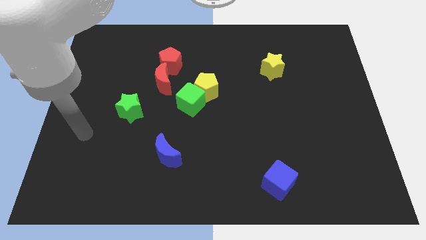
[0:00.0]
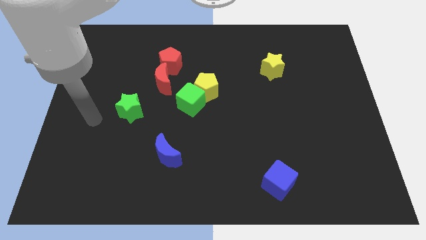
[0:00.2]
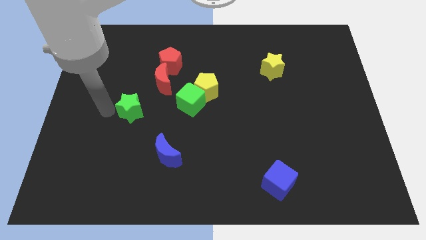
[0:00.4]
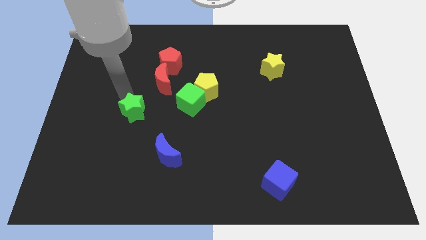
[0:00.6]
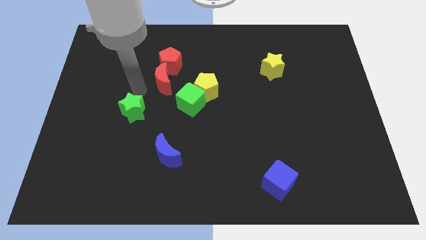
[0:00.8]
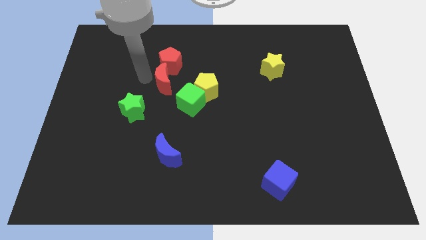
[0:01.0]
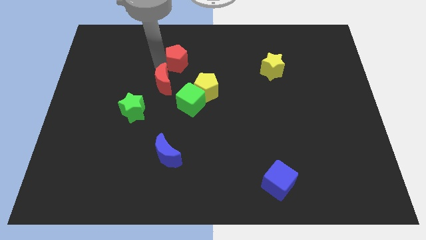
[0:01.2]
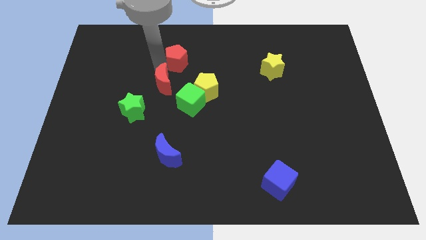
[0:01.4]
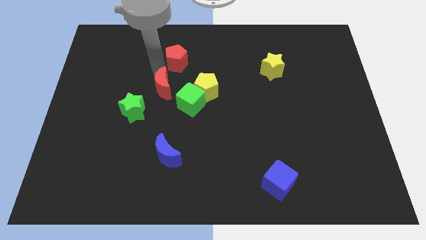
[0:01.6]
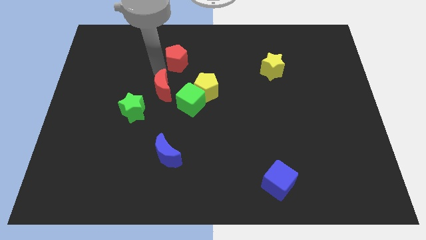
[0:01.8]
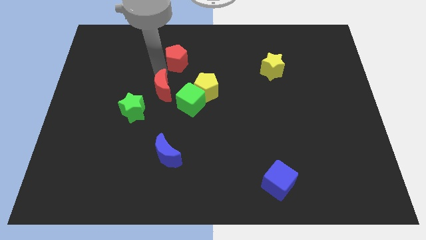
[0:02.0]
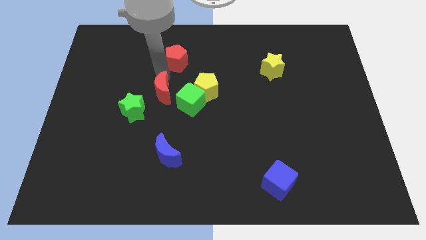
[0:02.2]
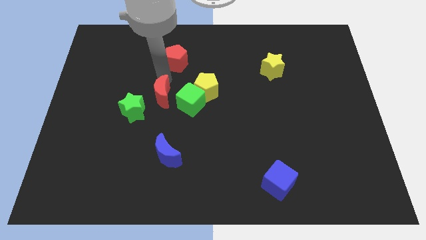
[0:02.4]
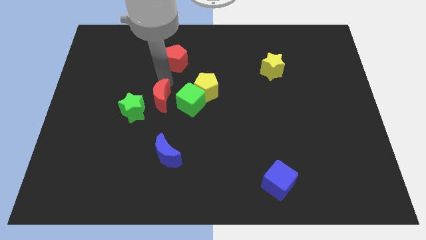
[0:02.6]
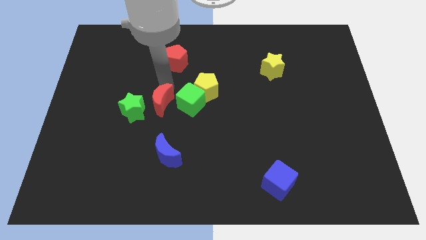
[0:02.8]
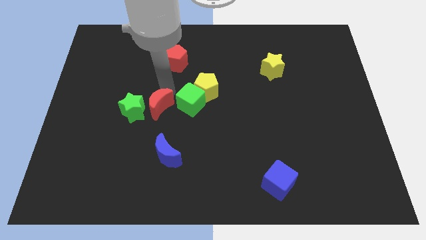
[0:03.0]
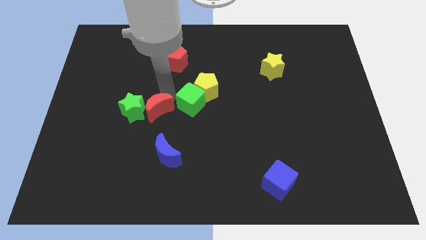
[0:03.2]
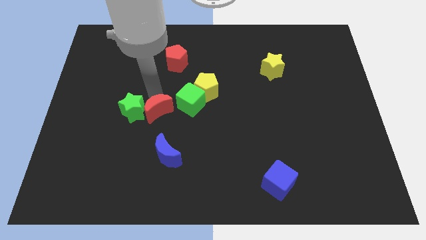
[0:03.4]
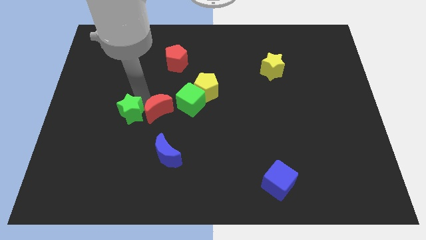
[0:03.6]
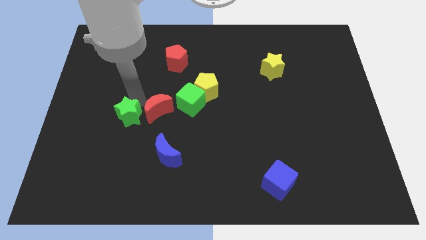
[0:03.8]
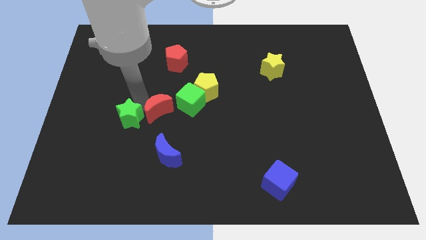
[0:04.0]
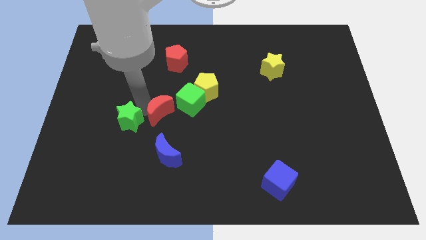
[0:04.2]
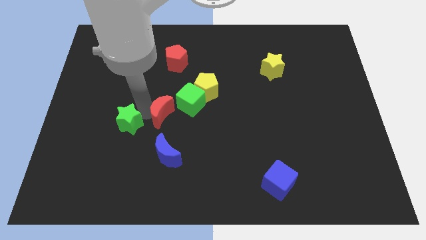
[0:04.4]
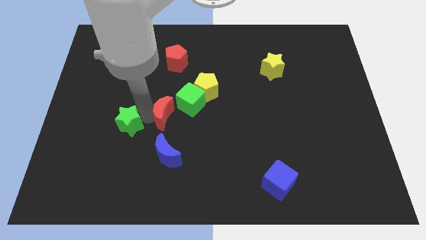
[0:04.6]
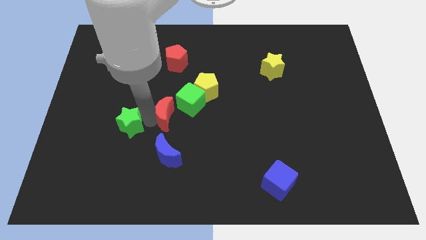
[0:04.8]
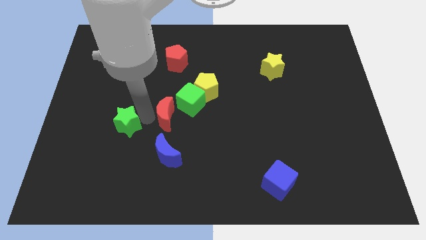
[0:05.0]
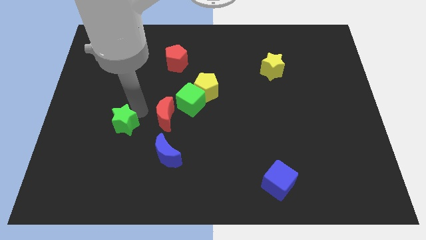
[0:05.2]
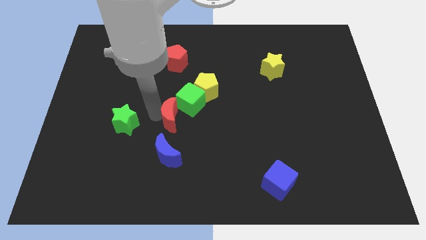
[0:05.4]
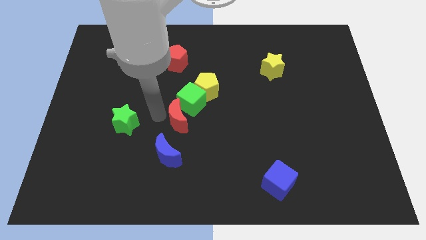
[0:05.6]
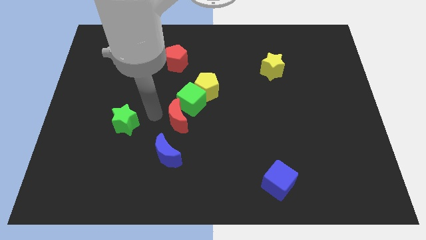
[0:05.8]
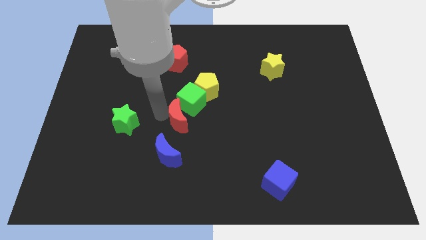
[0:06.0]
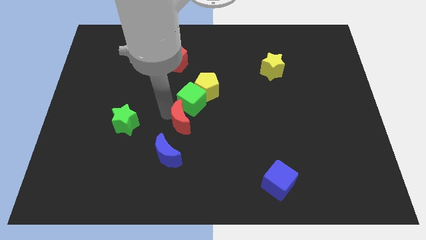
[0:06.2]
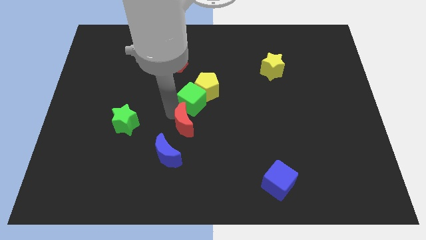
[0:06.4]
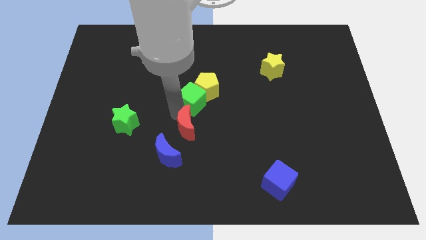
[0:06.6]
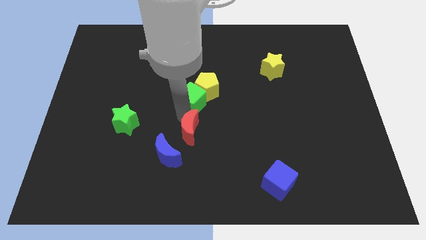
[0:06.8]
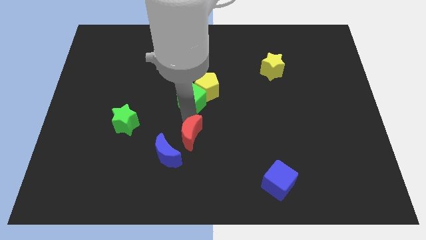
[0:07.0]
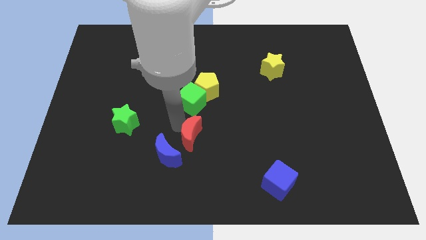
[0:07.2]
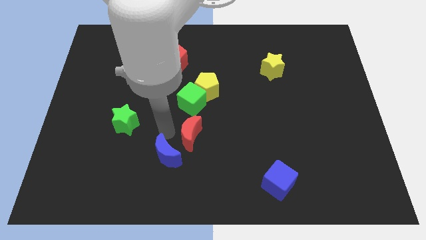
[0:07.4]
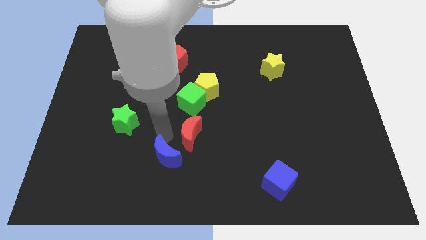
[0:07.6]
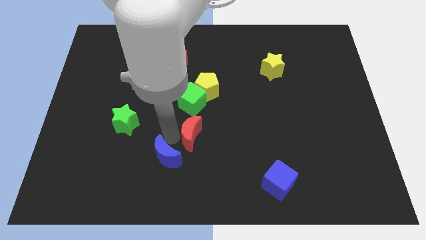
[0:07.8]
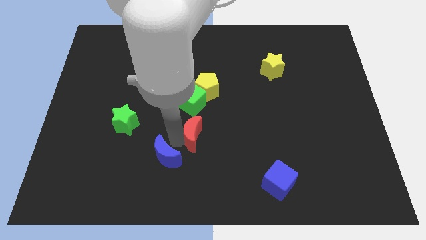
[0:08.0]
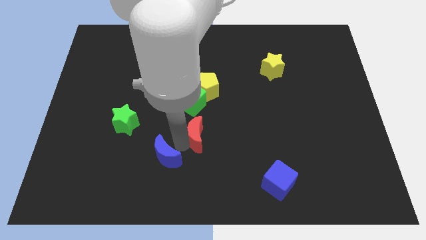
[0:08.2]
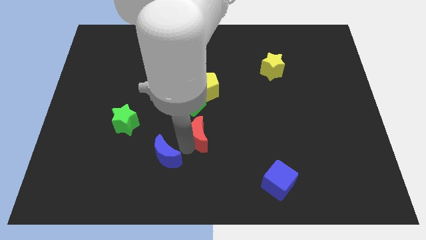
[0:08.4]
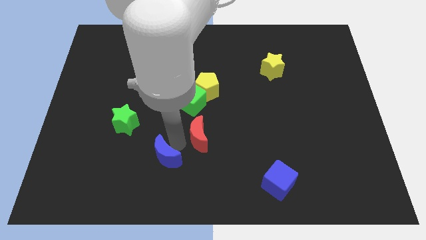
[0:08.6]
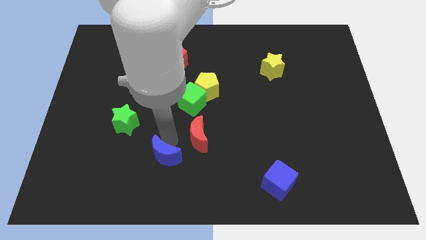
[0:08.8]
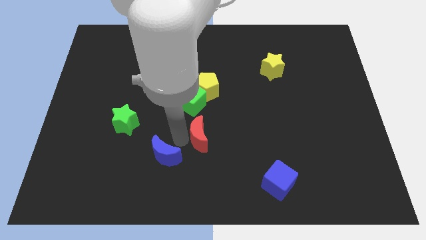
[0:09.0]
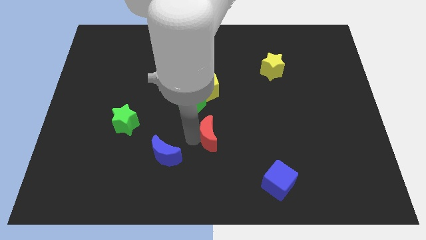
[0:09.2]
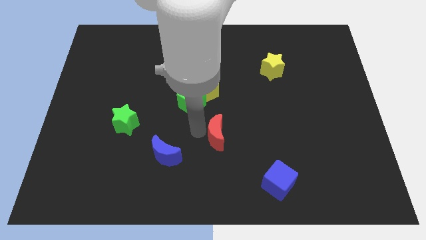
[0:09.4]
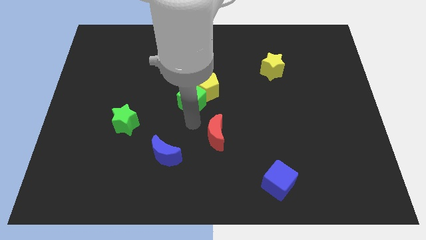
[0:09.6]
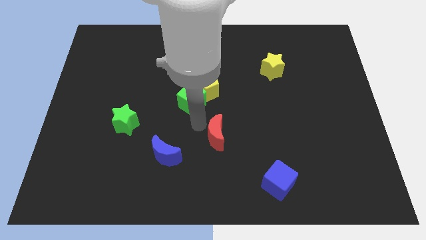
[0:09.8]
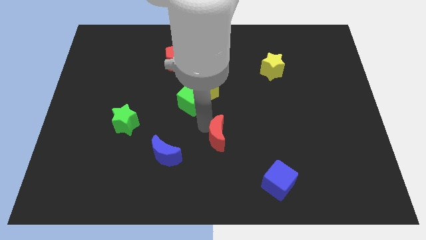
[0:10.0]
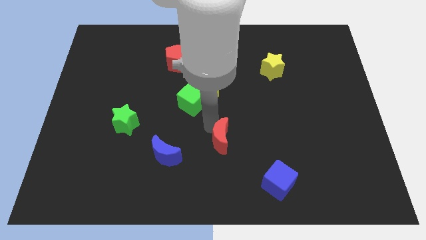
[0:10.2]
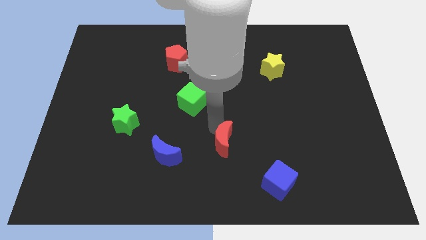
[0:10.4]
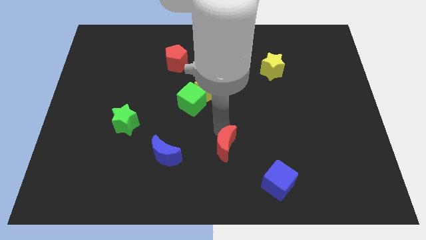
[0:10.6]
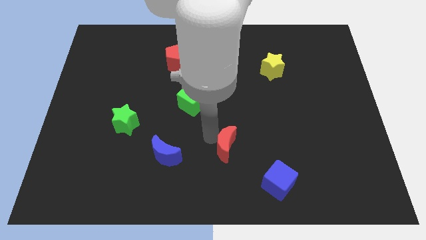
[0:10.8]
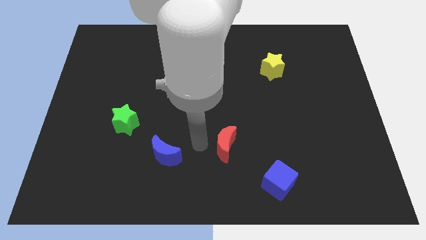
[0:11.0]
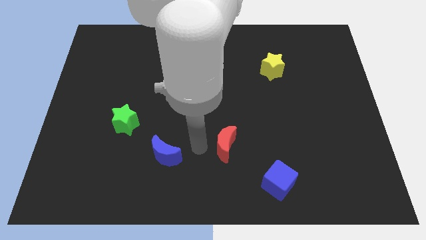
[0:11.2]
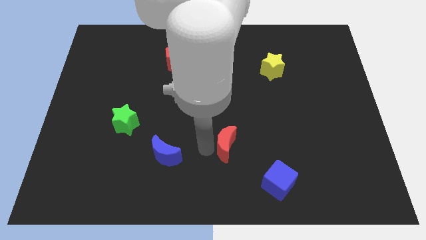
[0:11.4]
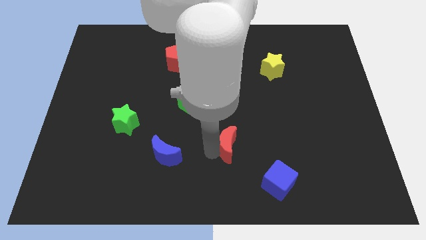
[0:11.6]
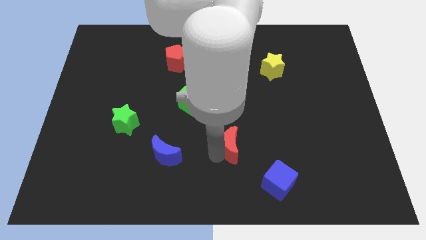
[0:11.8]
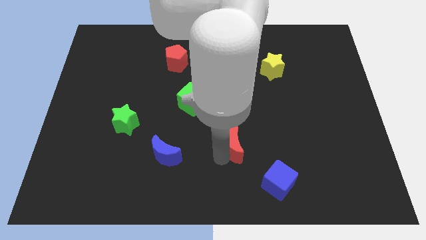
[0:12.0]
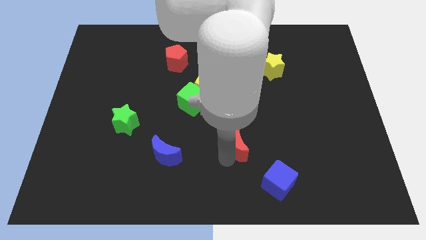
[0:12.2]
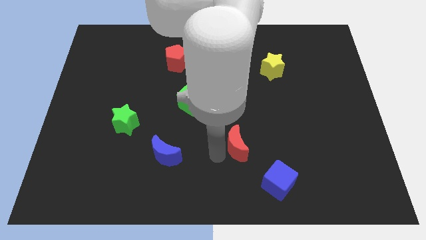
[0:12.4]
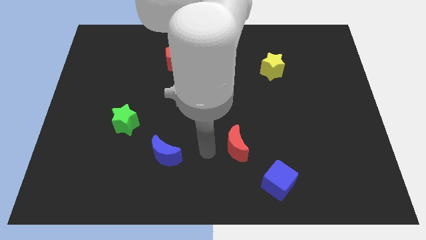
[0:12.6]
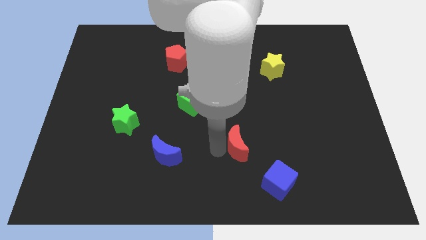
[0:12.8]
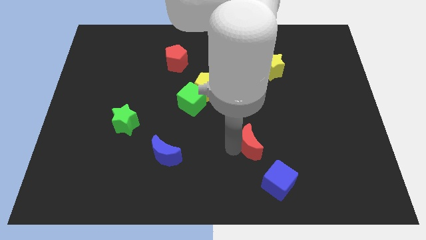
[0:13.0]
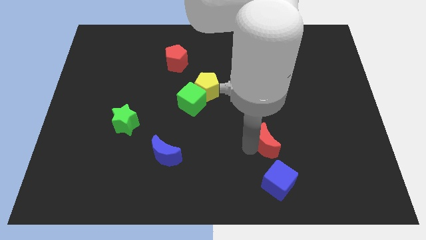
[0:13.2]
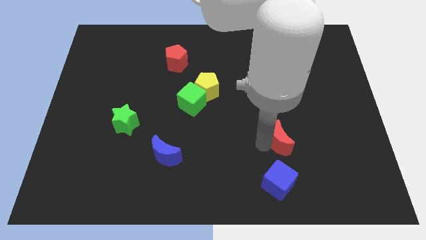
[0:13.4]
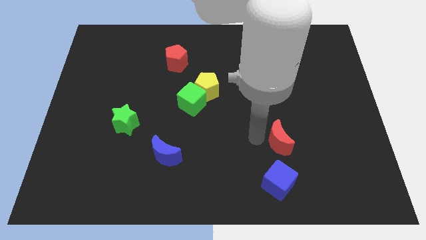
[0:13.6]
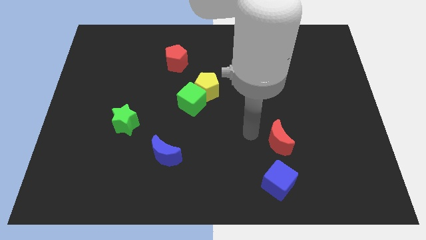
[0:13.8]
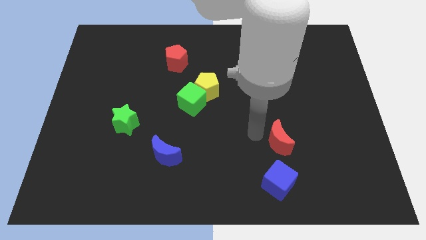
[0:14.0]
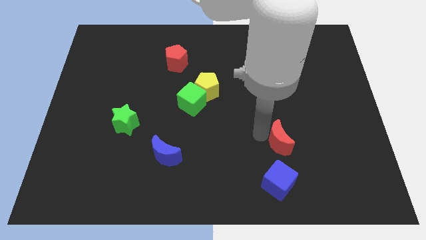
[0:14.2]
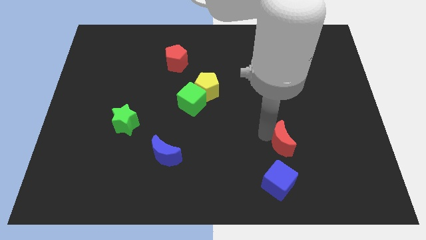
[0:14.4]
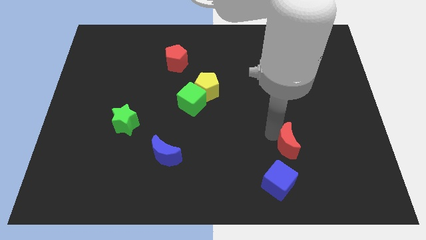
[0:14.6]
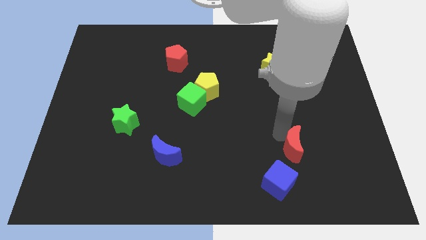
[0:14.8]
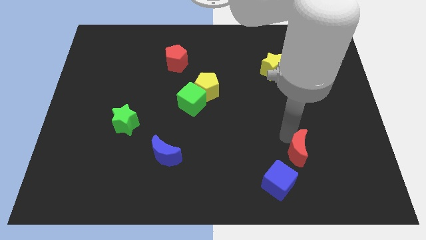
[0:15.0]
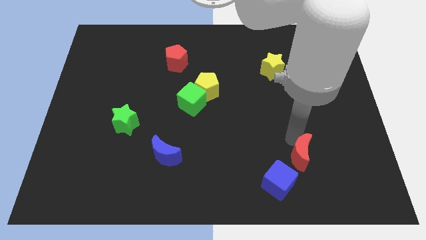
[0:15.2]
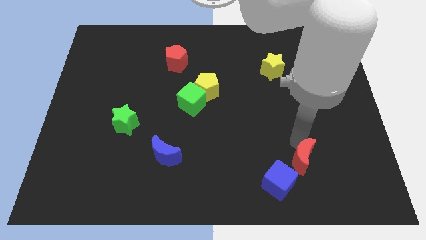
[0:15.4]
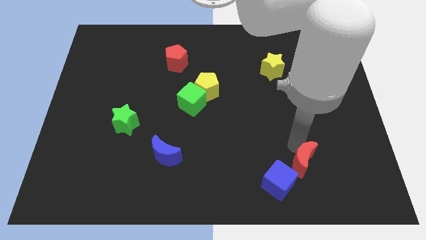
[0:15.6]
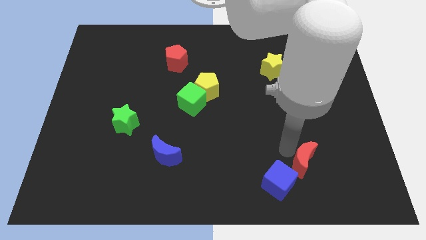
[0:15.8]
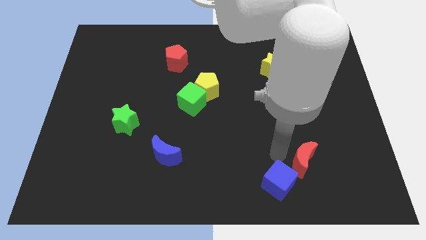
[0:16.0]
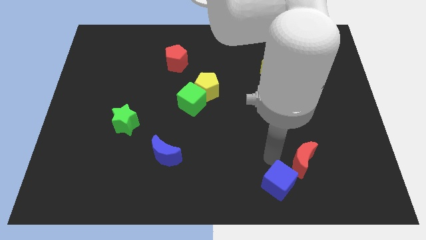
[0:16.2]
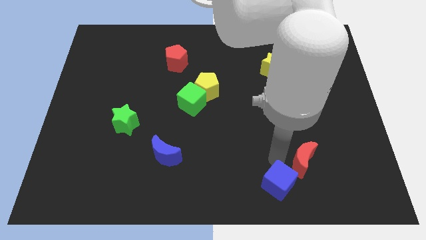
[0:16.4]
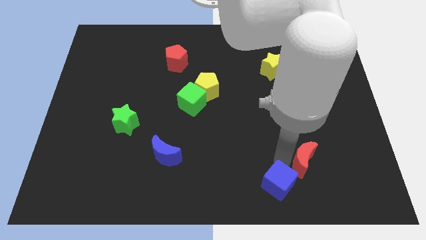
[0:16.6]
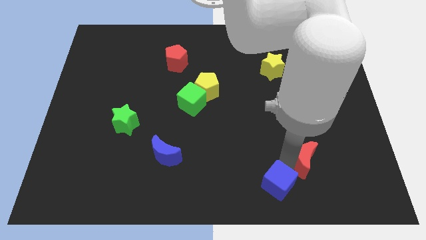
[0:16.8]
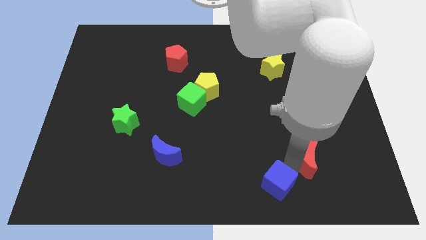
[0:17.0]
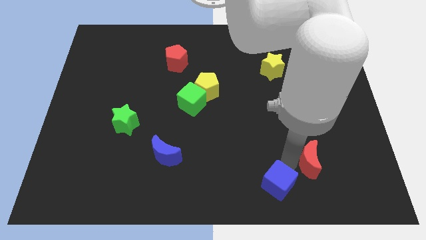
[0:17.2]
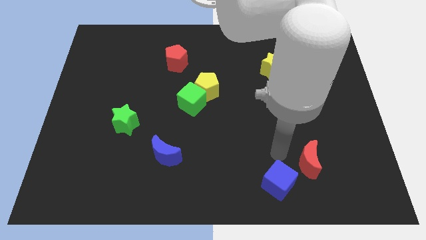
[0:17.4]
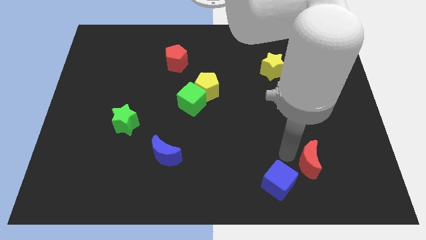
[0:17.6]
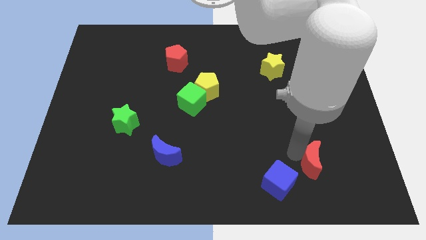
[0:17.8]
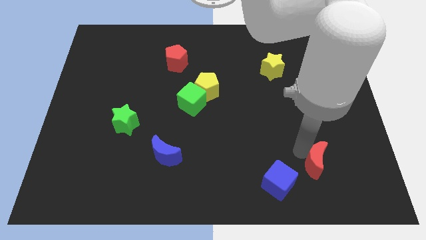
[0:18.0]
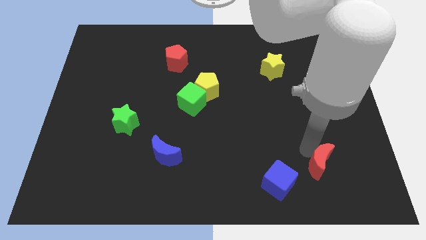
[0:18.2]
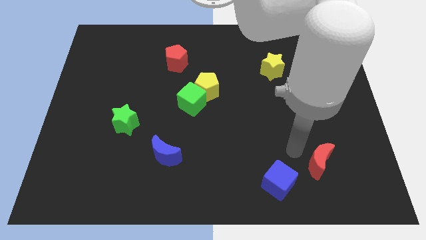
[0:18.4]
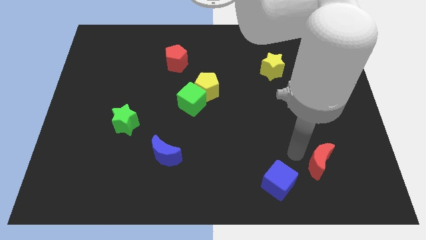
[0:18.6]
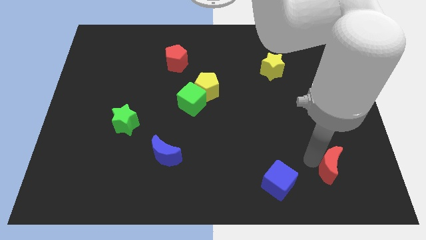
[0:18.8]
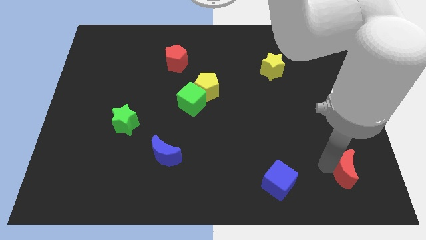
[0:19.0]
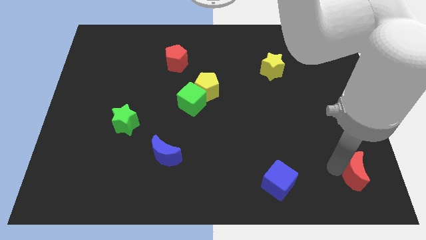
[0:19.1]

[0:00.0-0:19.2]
put the red moon to the bottom right of the board
